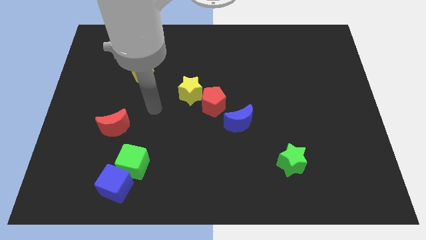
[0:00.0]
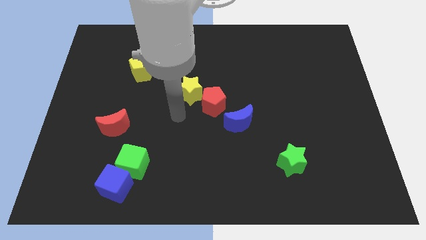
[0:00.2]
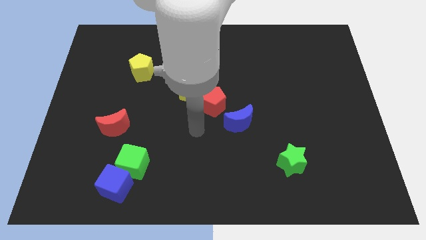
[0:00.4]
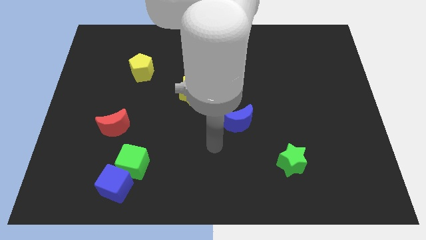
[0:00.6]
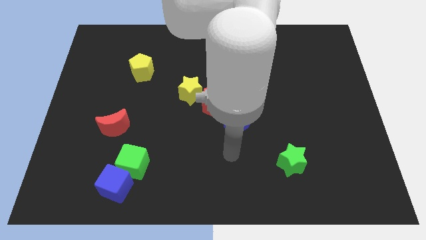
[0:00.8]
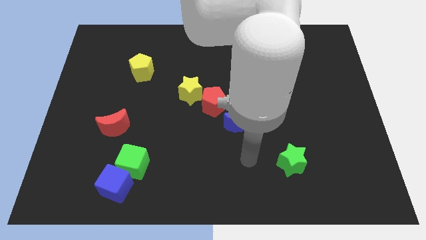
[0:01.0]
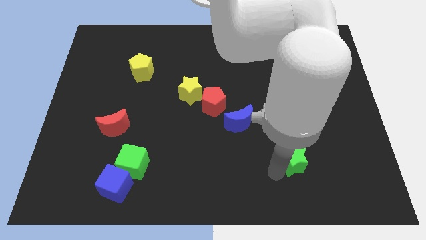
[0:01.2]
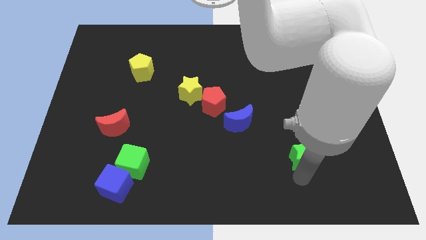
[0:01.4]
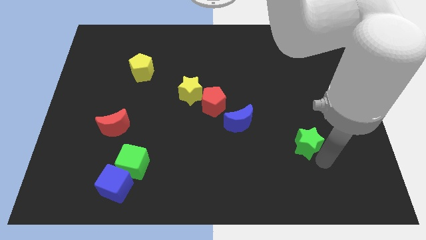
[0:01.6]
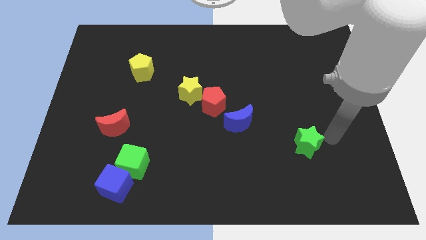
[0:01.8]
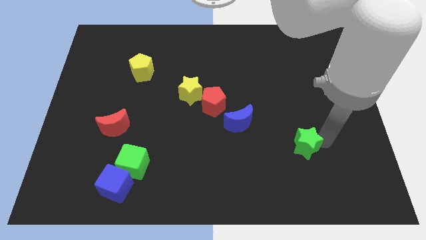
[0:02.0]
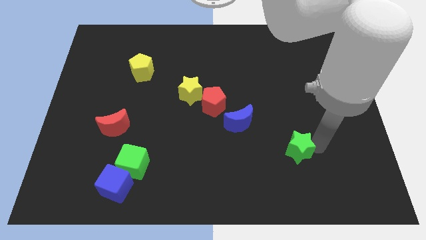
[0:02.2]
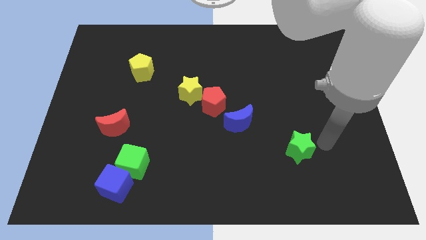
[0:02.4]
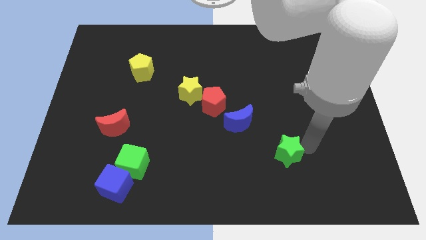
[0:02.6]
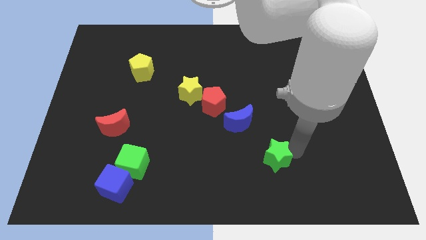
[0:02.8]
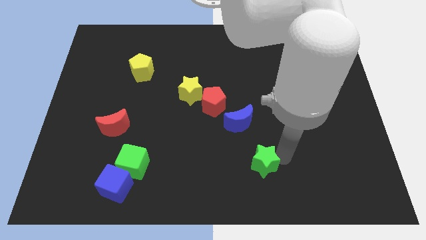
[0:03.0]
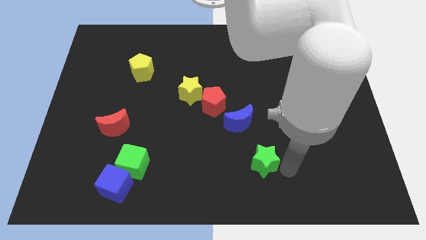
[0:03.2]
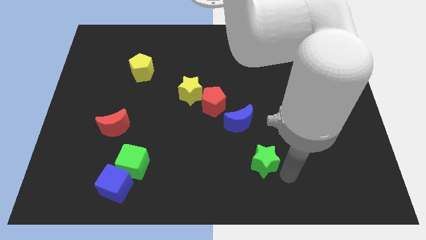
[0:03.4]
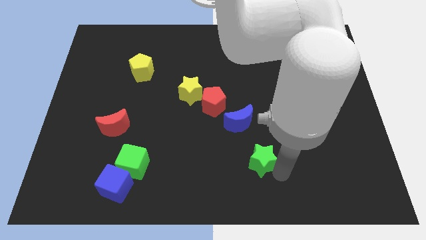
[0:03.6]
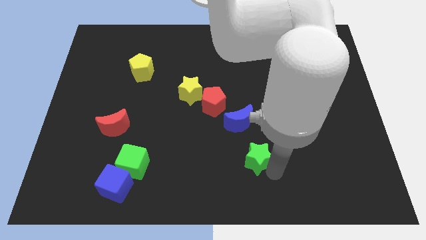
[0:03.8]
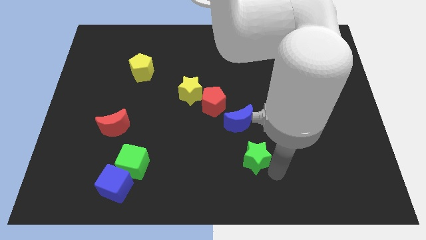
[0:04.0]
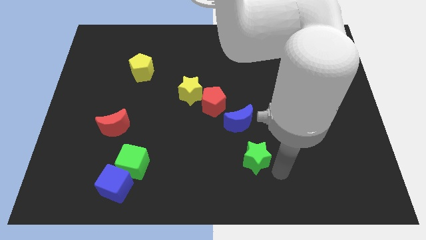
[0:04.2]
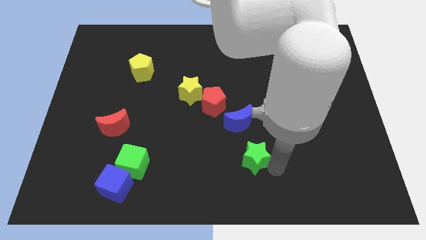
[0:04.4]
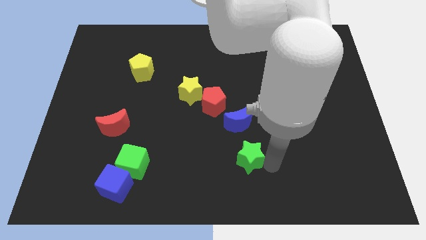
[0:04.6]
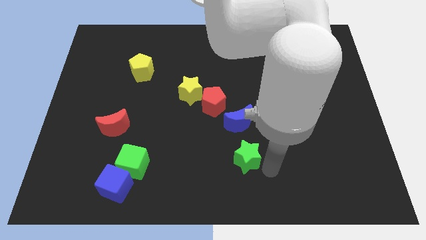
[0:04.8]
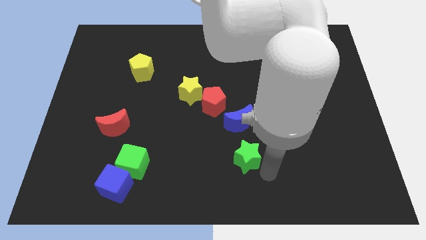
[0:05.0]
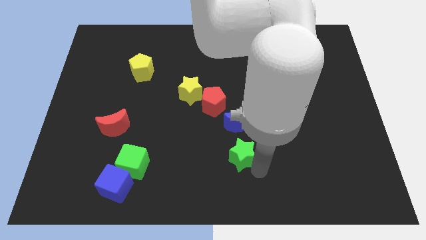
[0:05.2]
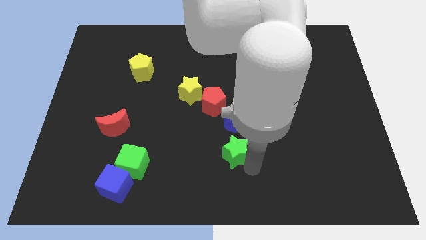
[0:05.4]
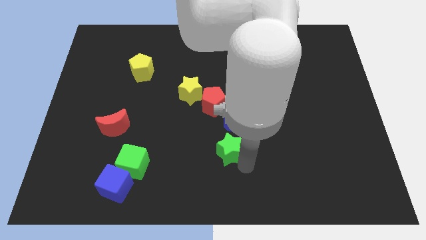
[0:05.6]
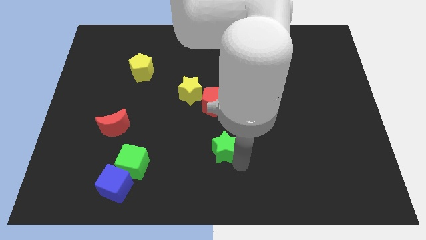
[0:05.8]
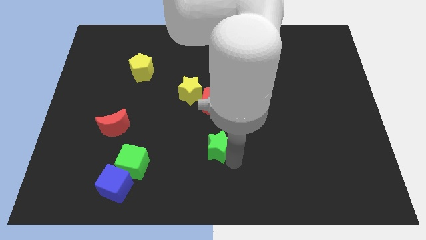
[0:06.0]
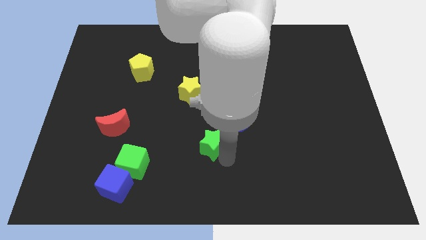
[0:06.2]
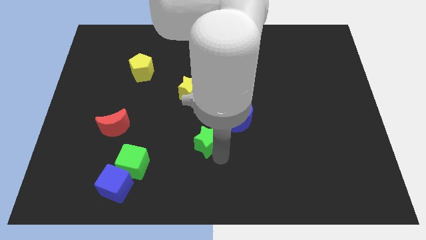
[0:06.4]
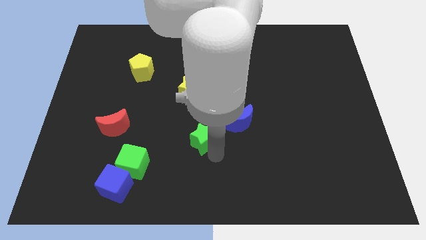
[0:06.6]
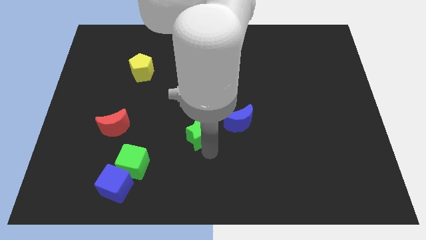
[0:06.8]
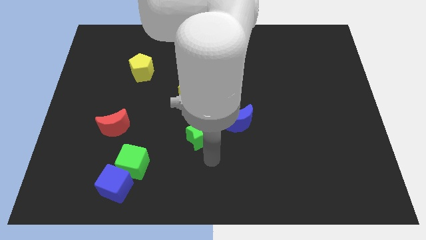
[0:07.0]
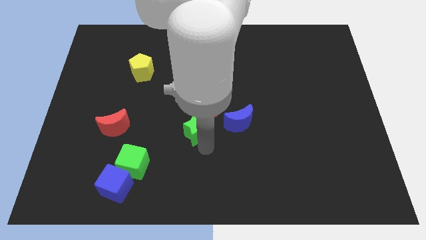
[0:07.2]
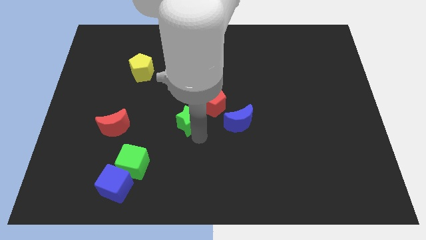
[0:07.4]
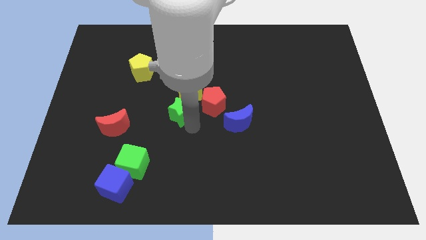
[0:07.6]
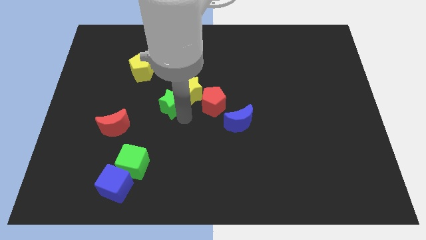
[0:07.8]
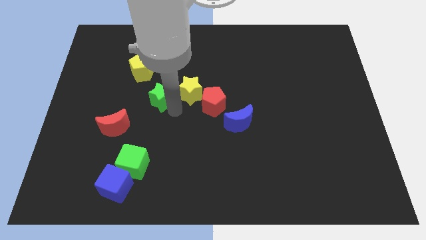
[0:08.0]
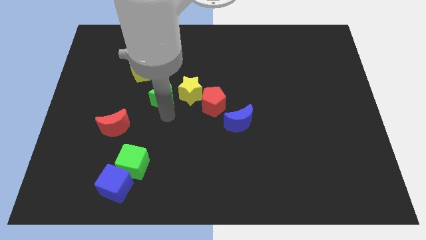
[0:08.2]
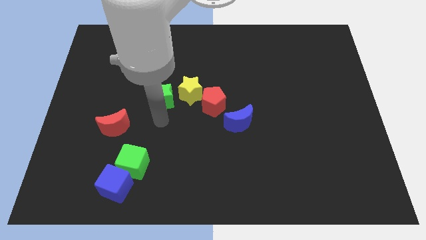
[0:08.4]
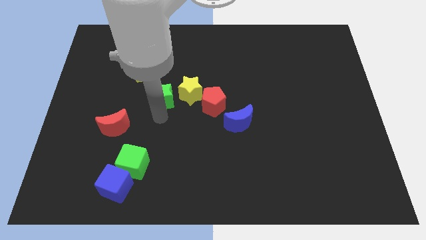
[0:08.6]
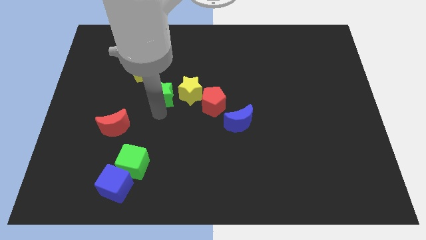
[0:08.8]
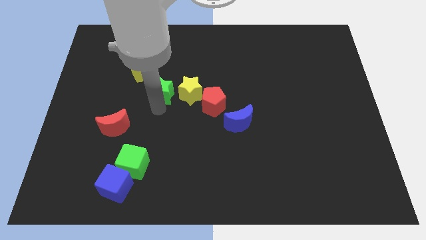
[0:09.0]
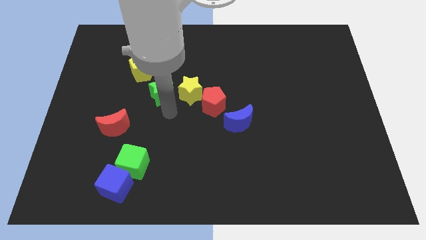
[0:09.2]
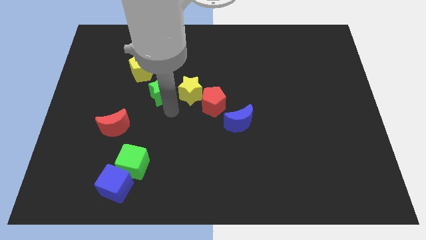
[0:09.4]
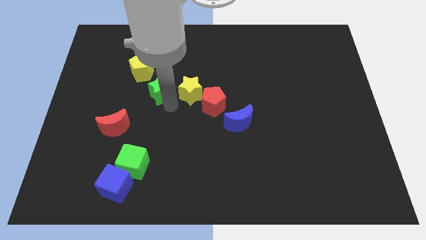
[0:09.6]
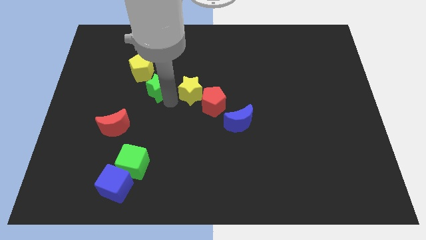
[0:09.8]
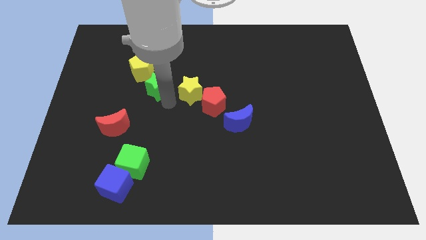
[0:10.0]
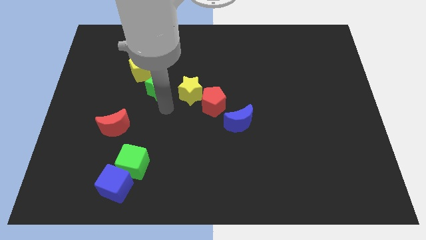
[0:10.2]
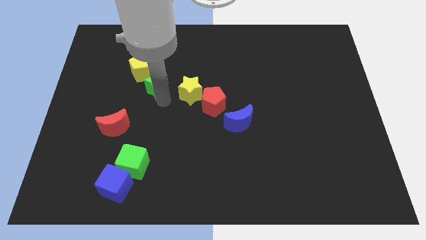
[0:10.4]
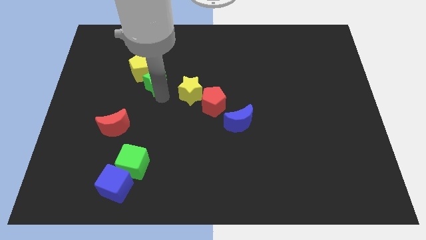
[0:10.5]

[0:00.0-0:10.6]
put the green star to the yellow pentagon

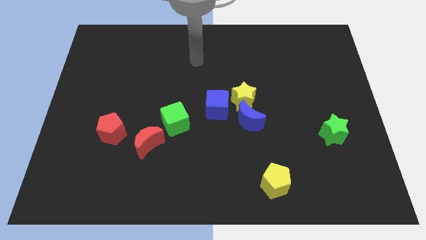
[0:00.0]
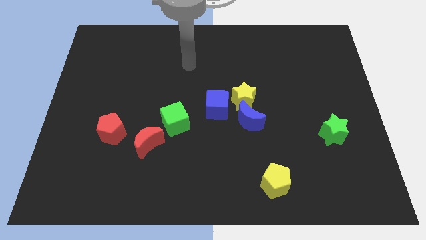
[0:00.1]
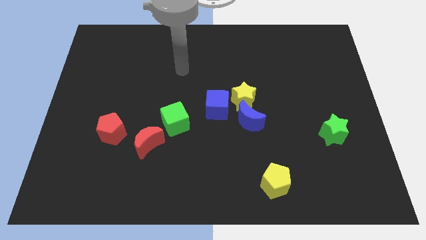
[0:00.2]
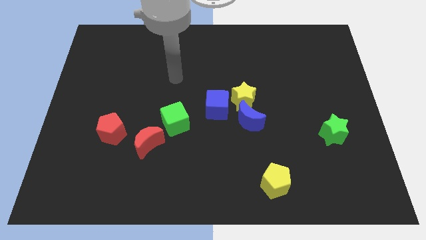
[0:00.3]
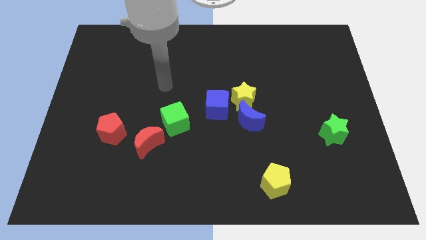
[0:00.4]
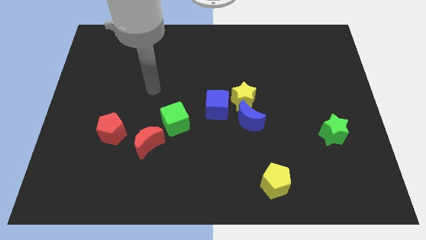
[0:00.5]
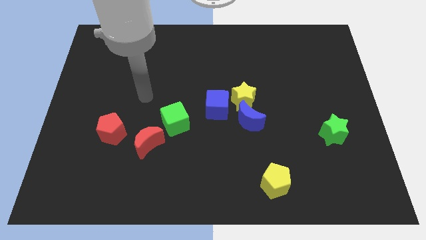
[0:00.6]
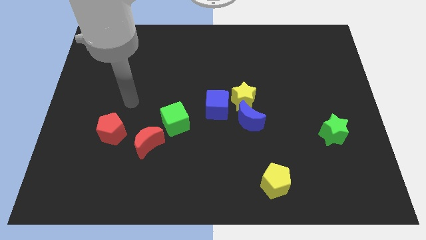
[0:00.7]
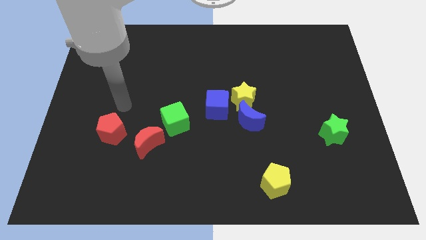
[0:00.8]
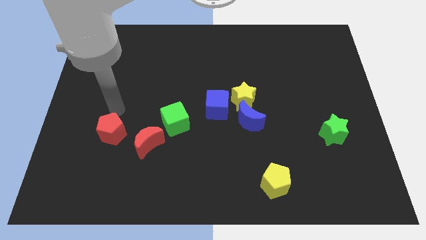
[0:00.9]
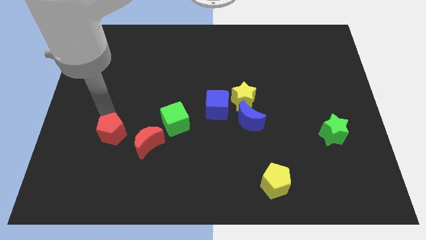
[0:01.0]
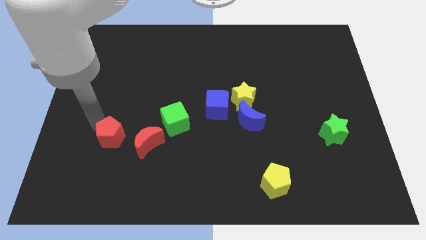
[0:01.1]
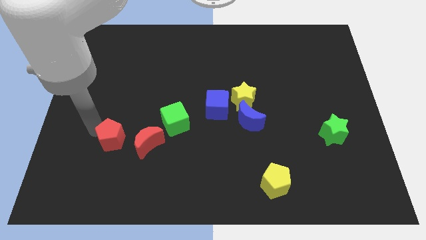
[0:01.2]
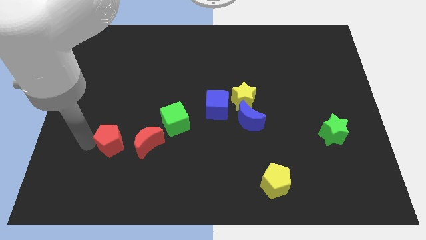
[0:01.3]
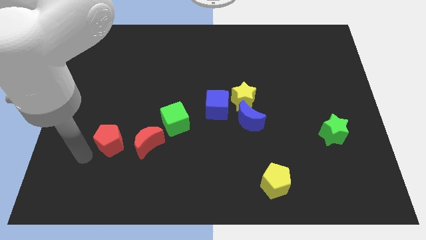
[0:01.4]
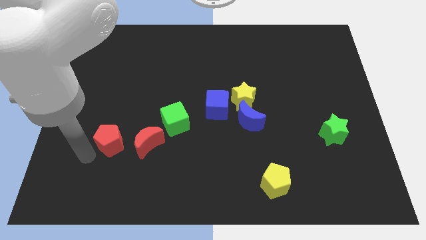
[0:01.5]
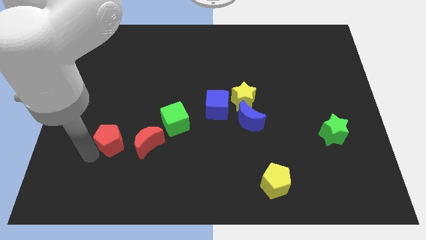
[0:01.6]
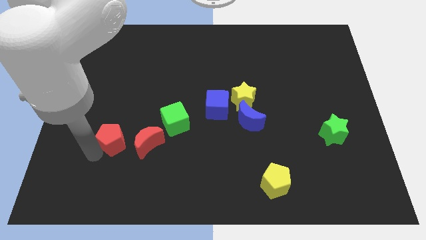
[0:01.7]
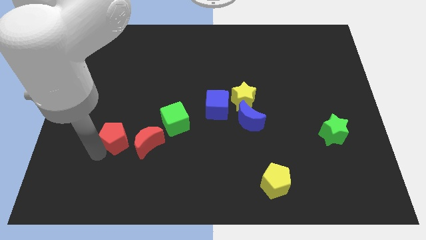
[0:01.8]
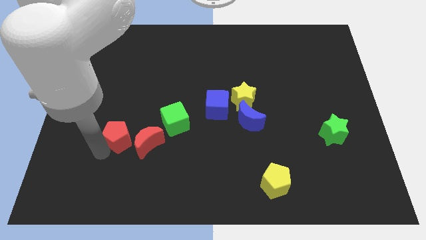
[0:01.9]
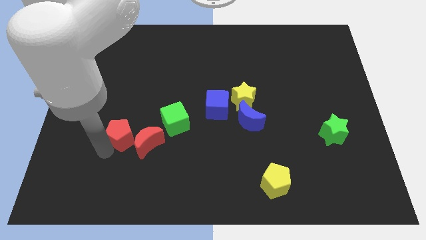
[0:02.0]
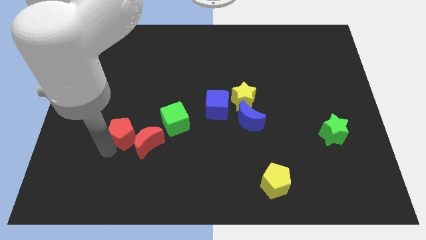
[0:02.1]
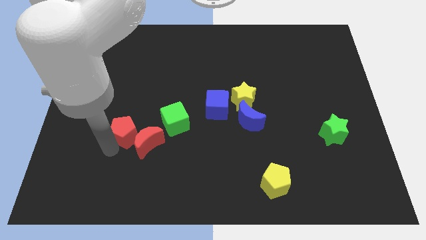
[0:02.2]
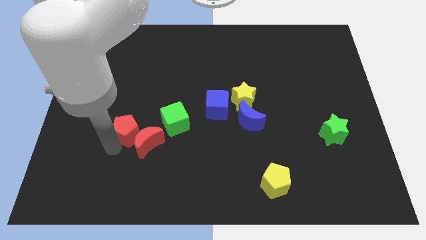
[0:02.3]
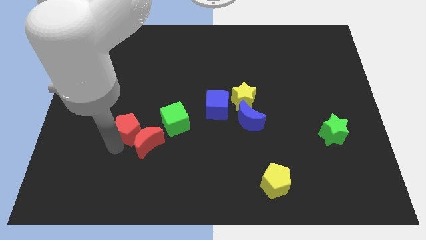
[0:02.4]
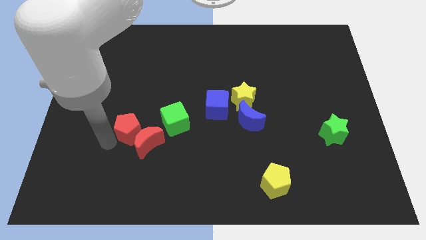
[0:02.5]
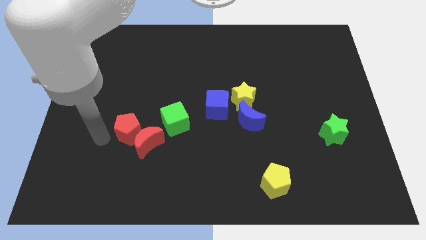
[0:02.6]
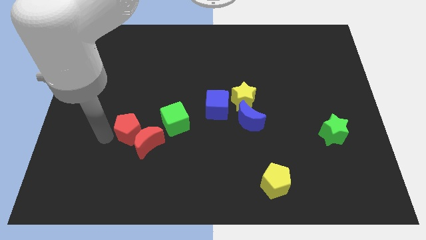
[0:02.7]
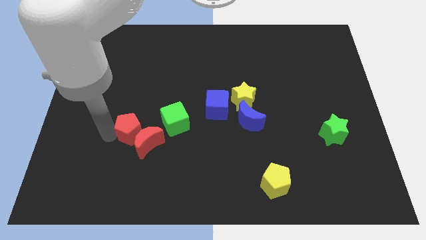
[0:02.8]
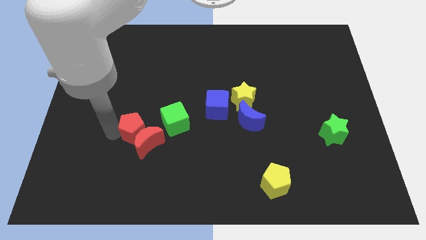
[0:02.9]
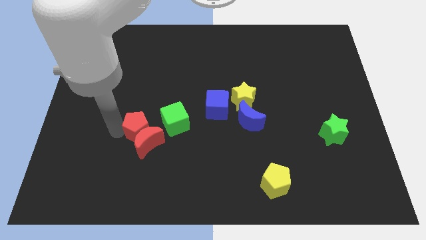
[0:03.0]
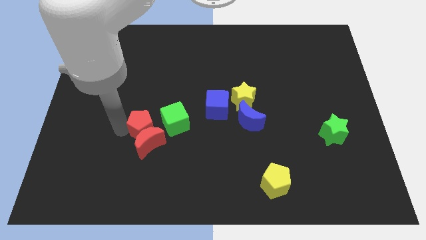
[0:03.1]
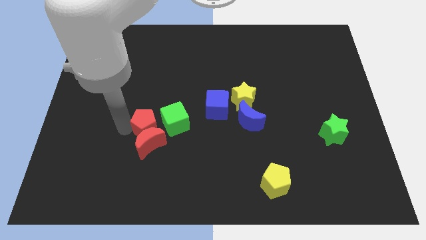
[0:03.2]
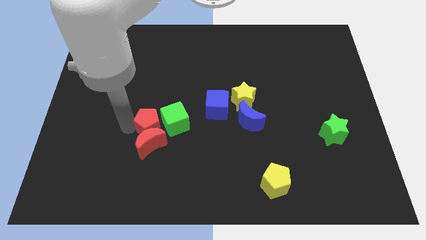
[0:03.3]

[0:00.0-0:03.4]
move the red pentagon close to the green cube
